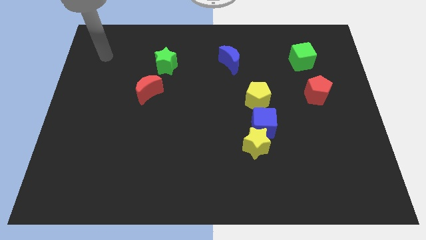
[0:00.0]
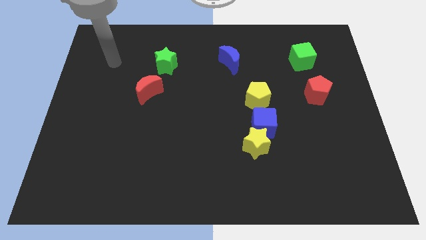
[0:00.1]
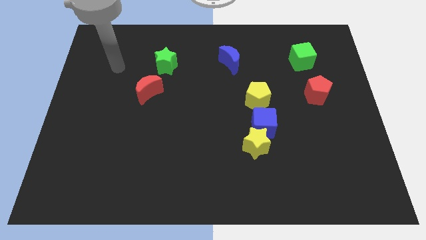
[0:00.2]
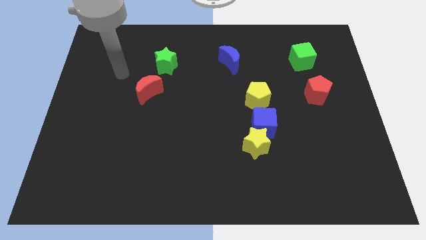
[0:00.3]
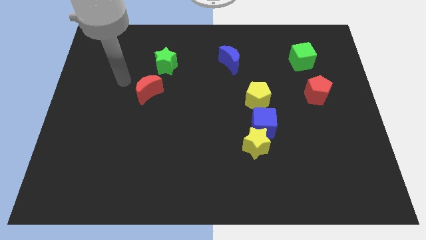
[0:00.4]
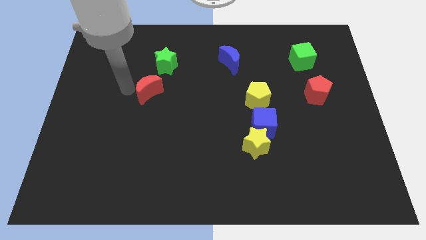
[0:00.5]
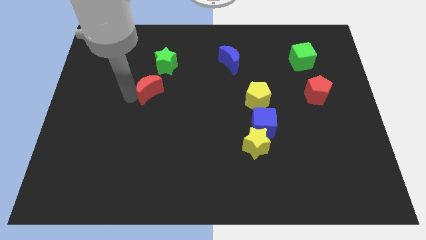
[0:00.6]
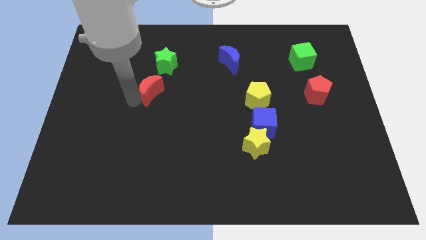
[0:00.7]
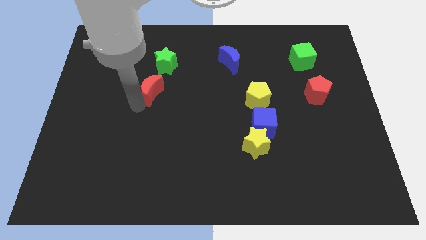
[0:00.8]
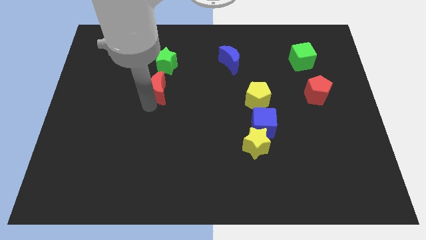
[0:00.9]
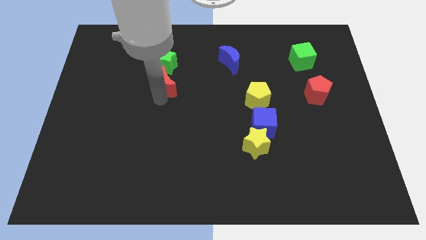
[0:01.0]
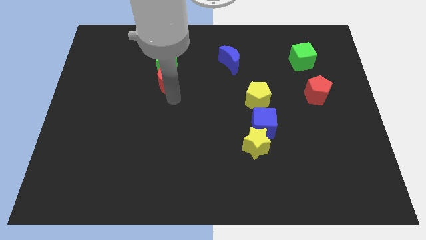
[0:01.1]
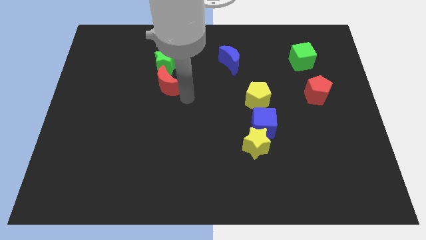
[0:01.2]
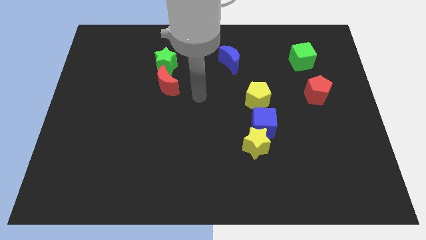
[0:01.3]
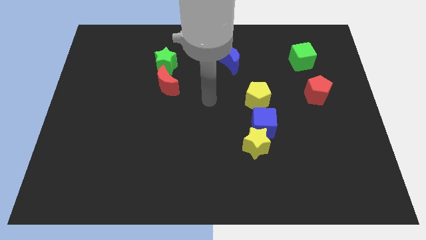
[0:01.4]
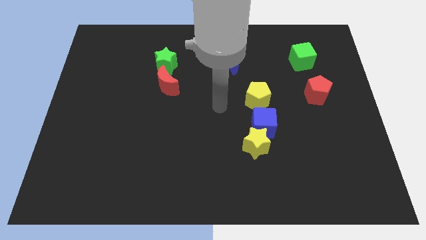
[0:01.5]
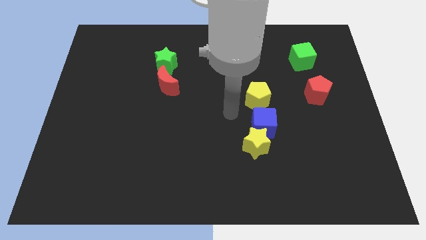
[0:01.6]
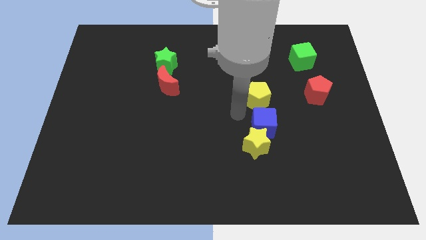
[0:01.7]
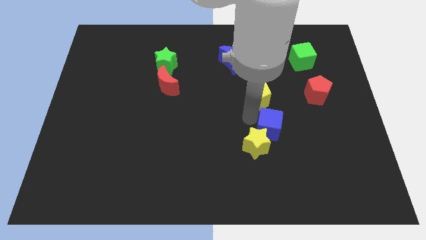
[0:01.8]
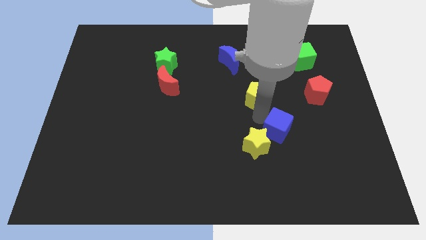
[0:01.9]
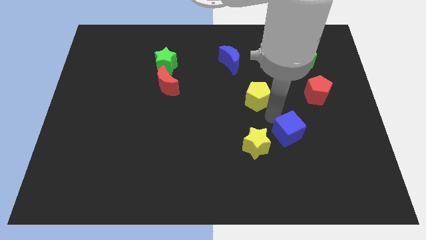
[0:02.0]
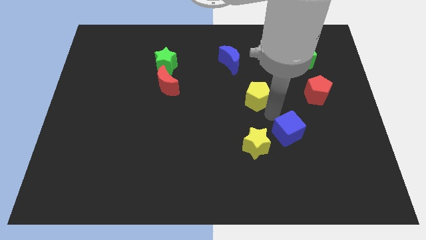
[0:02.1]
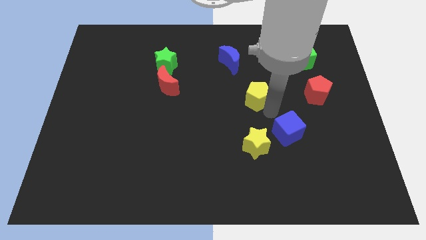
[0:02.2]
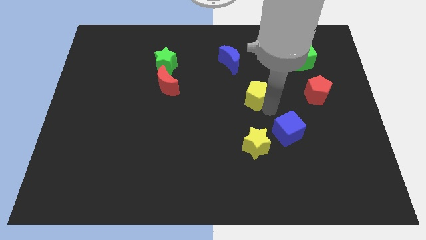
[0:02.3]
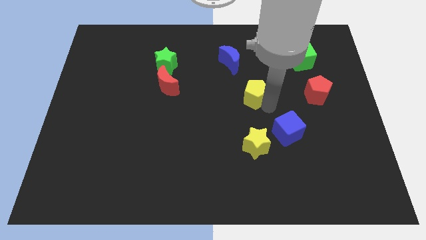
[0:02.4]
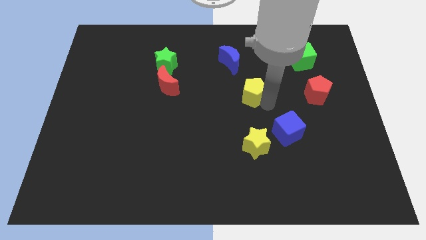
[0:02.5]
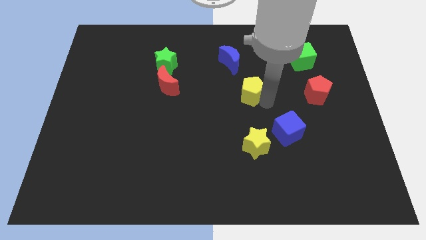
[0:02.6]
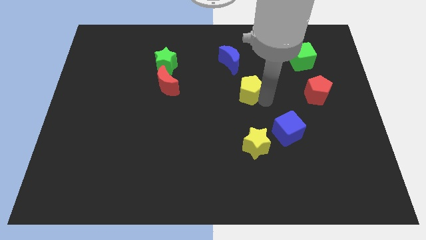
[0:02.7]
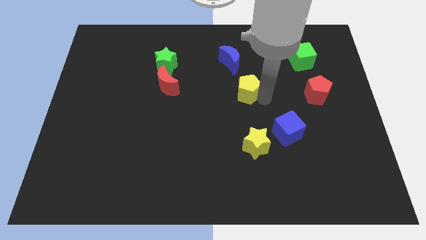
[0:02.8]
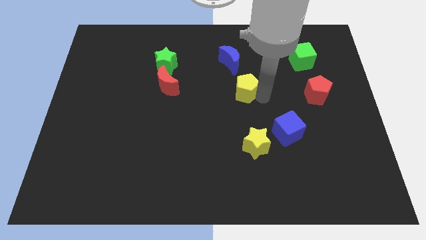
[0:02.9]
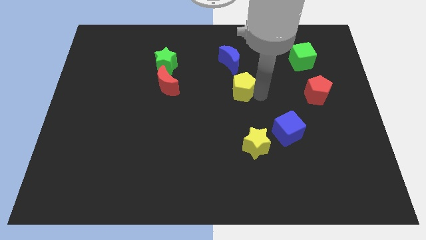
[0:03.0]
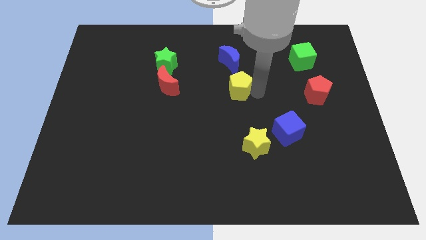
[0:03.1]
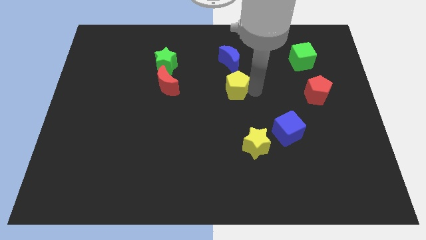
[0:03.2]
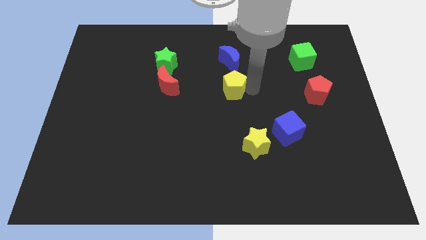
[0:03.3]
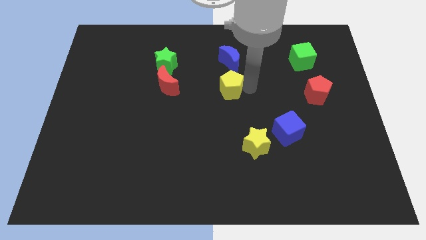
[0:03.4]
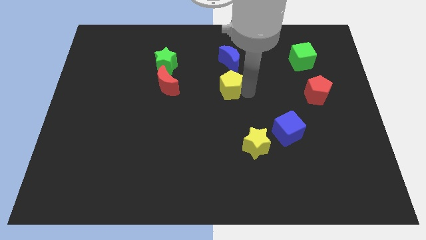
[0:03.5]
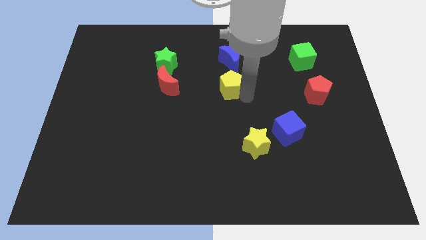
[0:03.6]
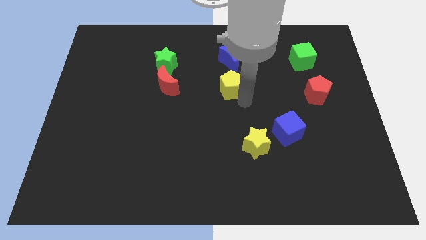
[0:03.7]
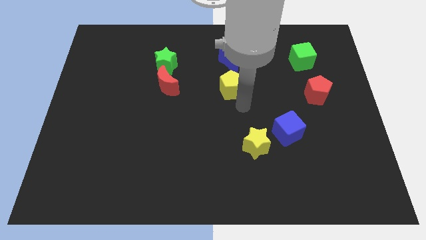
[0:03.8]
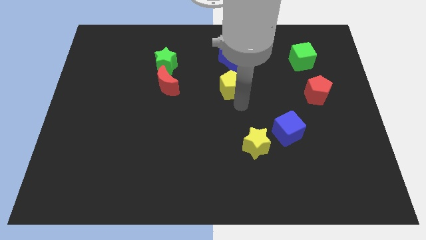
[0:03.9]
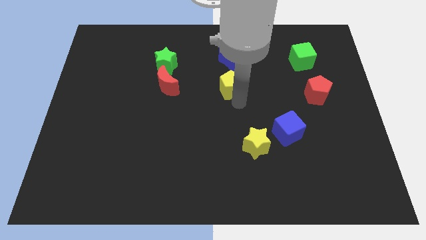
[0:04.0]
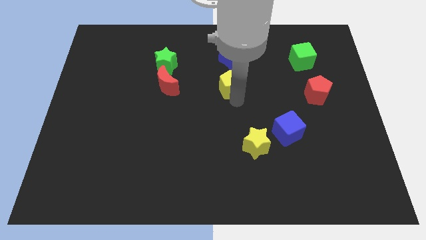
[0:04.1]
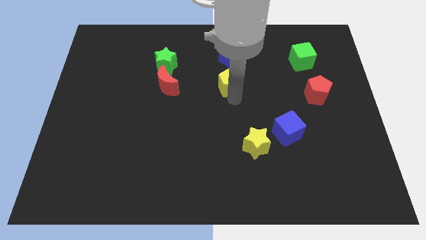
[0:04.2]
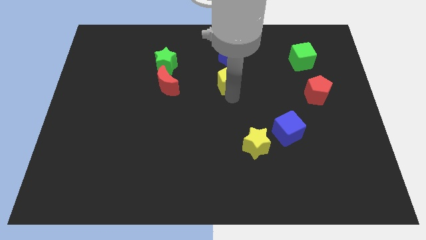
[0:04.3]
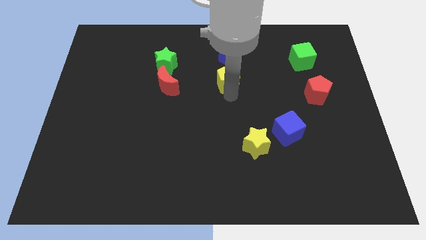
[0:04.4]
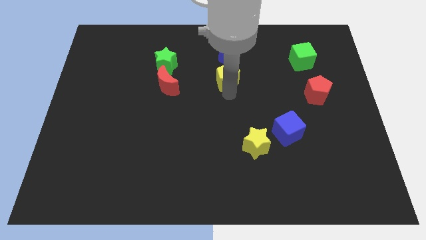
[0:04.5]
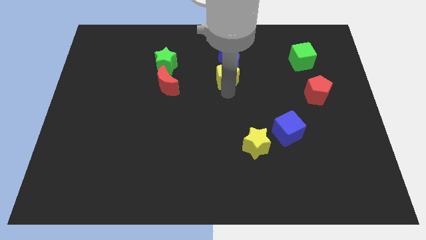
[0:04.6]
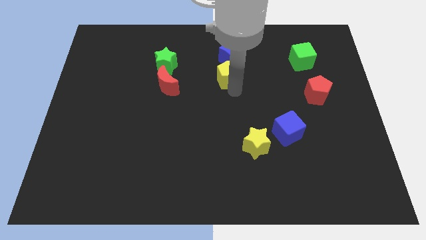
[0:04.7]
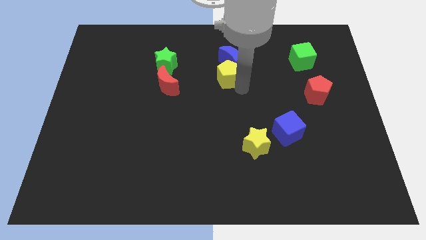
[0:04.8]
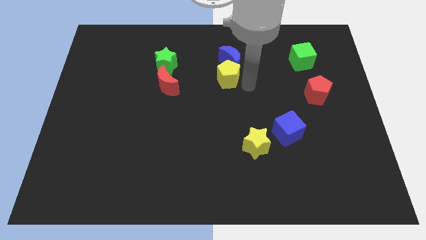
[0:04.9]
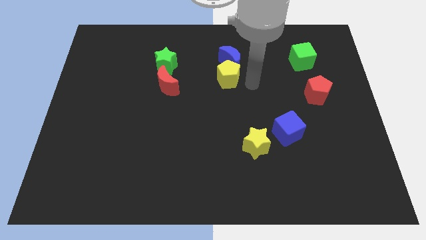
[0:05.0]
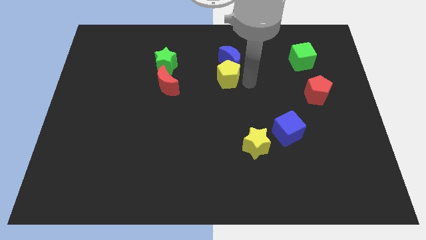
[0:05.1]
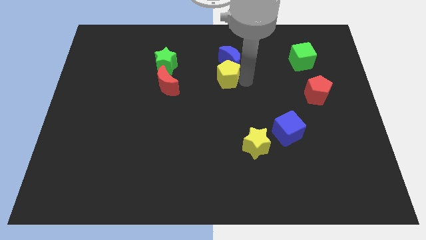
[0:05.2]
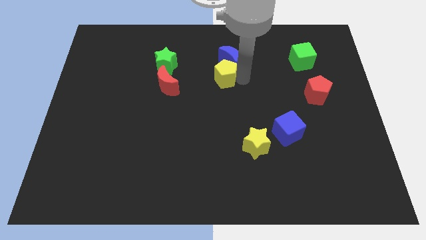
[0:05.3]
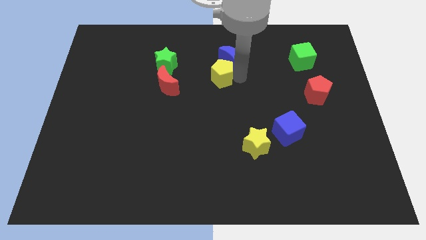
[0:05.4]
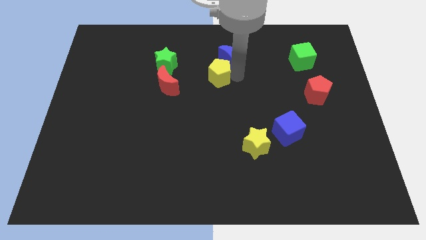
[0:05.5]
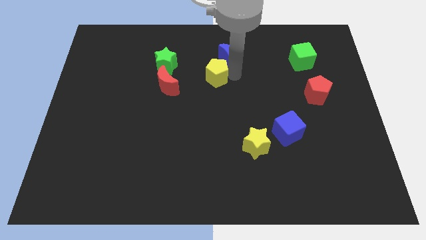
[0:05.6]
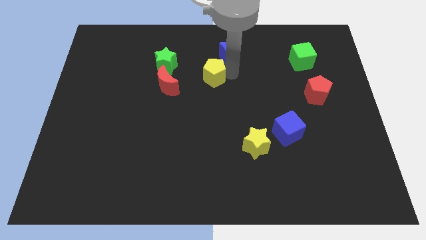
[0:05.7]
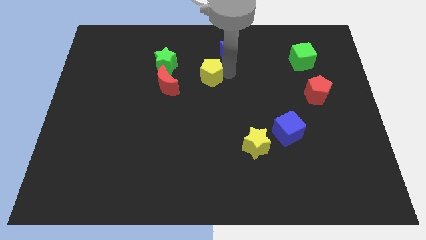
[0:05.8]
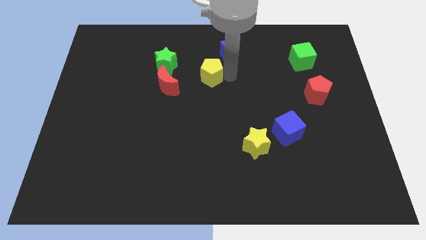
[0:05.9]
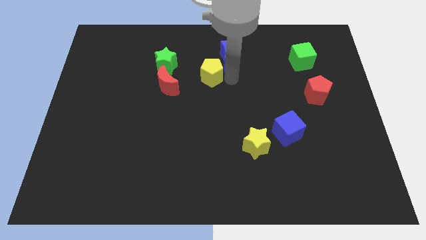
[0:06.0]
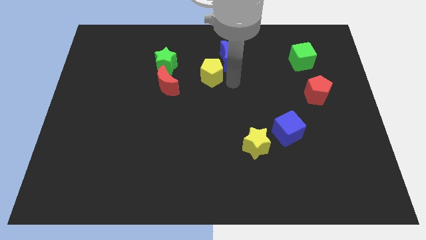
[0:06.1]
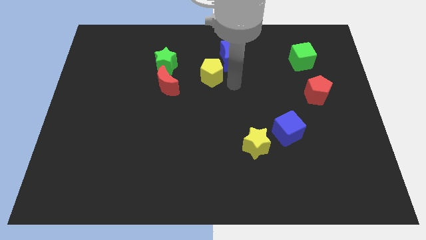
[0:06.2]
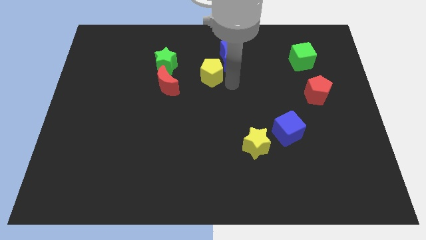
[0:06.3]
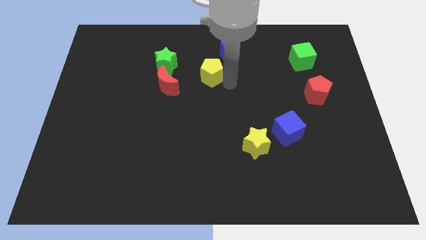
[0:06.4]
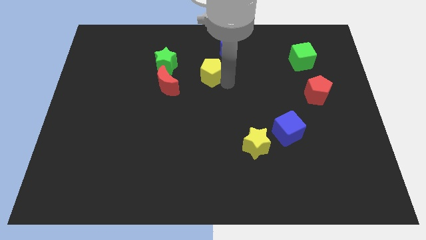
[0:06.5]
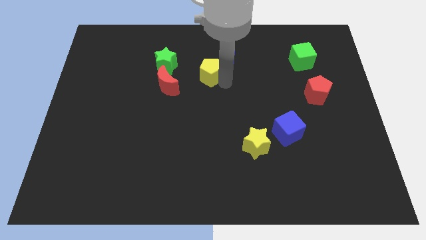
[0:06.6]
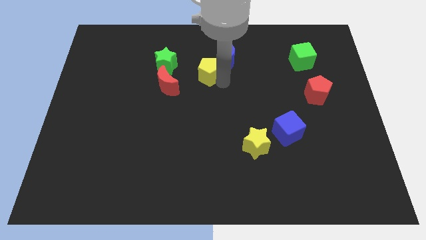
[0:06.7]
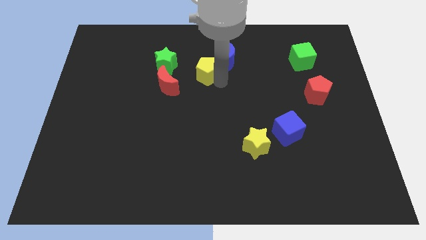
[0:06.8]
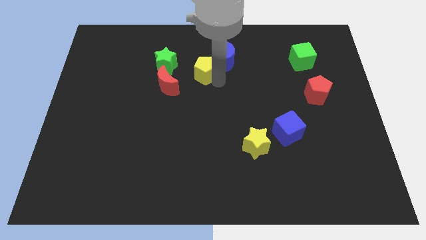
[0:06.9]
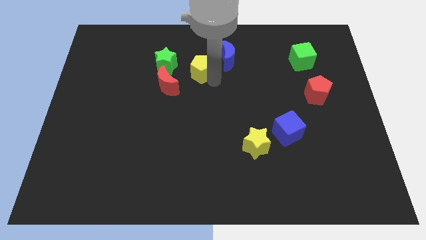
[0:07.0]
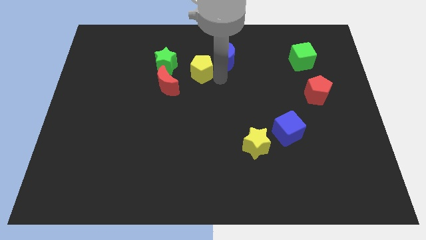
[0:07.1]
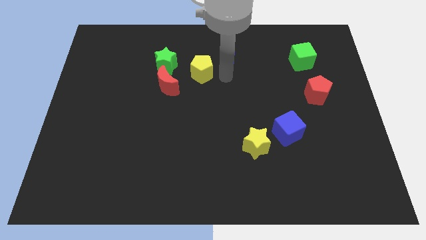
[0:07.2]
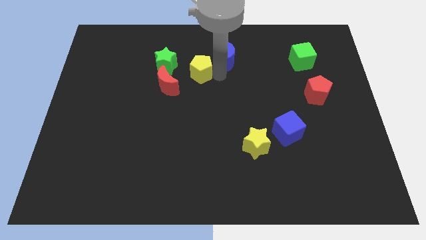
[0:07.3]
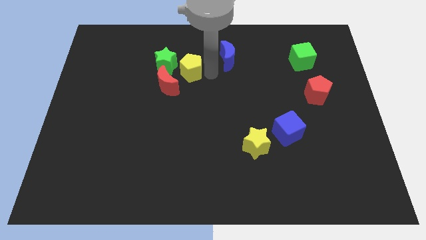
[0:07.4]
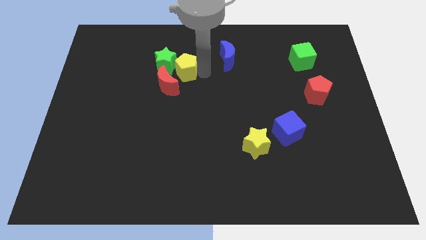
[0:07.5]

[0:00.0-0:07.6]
push the yellow pentagon next to the green star
